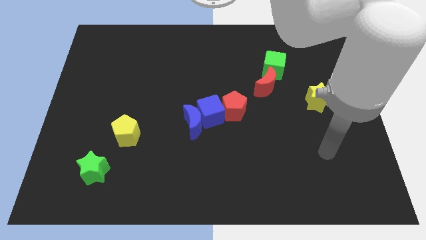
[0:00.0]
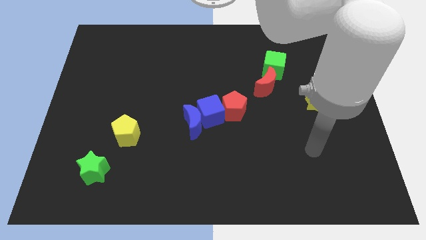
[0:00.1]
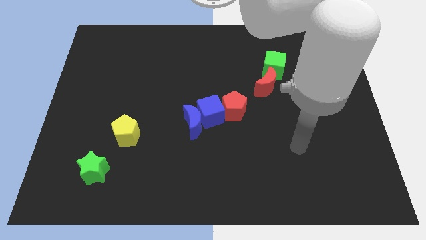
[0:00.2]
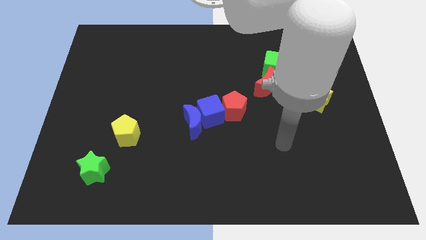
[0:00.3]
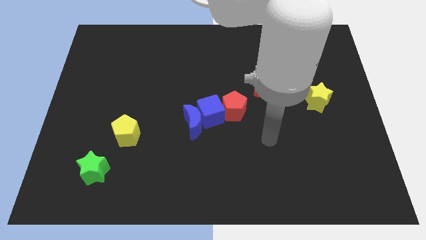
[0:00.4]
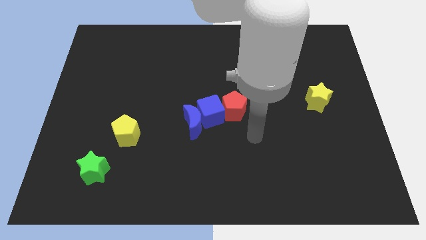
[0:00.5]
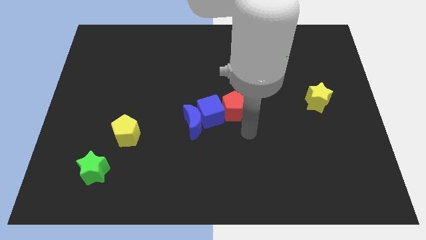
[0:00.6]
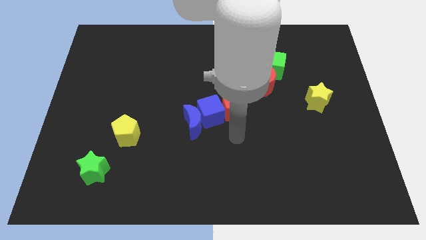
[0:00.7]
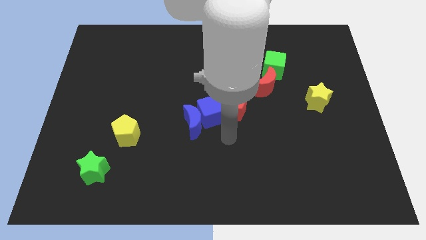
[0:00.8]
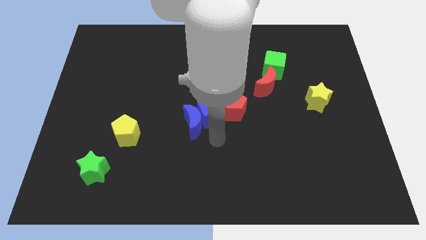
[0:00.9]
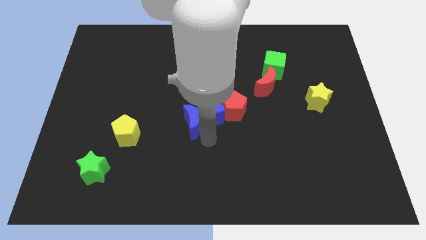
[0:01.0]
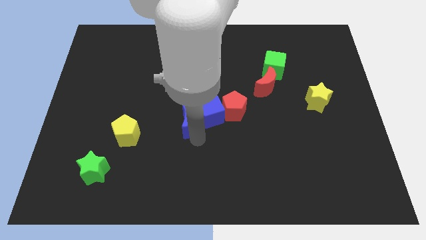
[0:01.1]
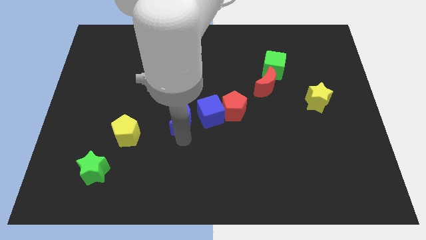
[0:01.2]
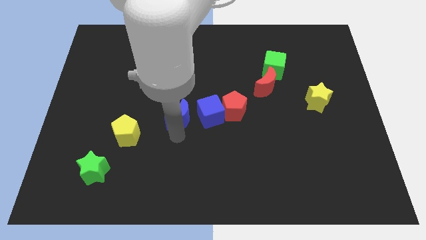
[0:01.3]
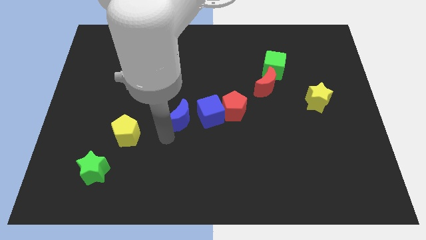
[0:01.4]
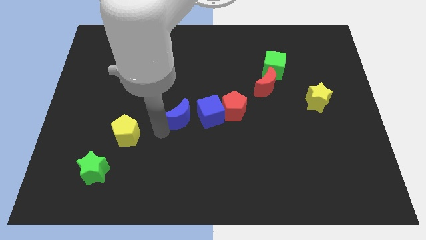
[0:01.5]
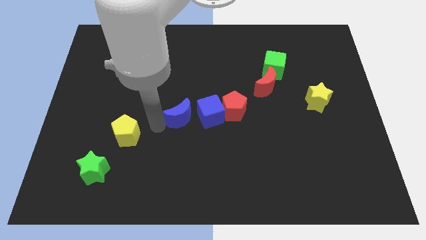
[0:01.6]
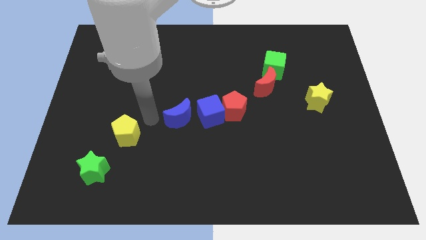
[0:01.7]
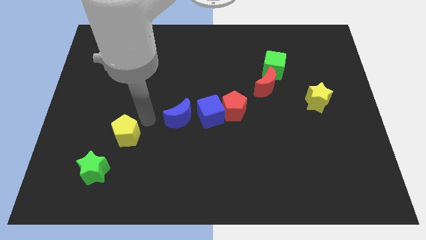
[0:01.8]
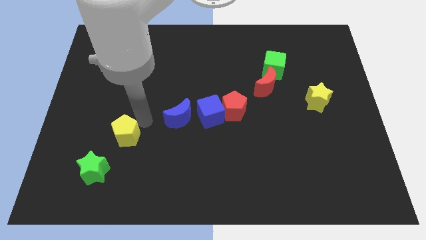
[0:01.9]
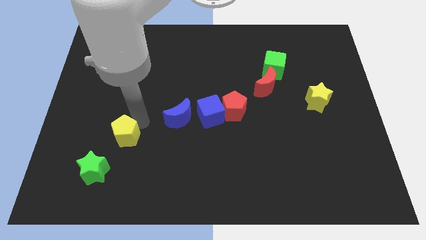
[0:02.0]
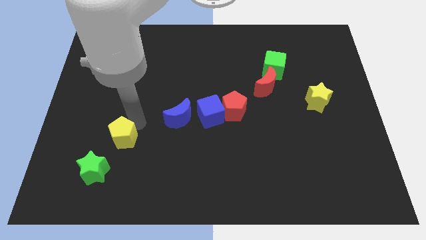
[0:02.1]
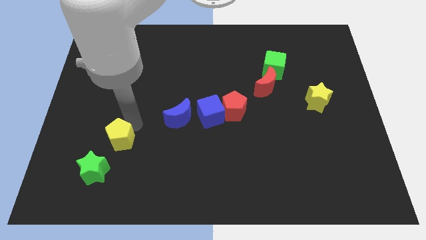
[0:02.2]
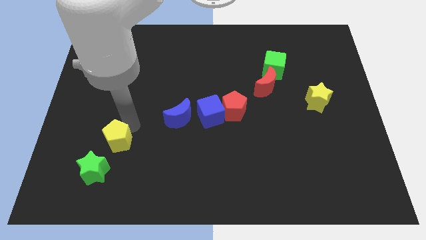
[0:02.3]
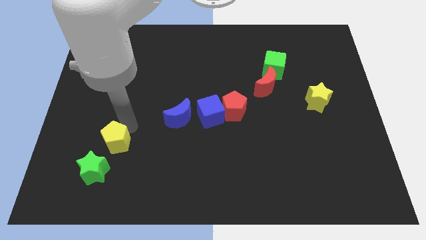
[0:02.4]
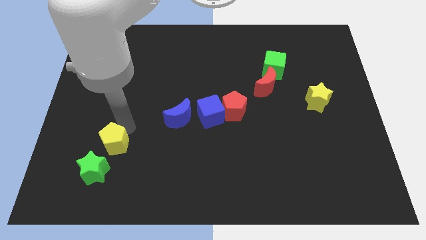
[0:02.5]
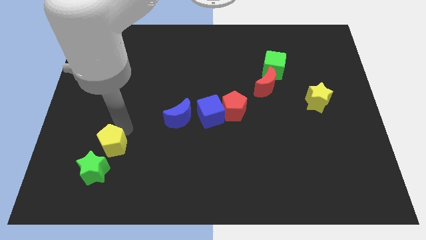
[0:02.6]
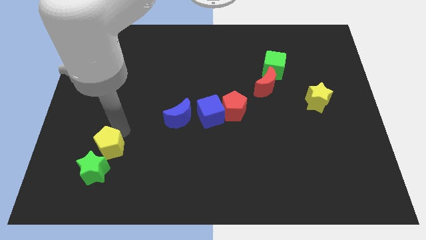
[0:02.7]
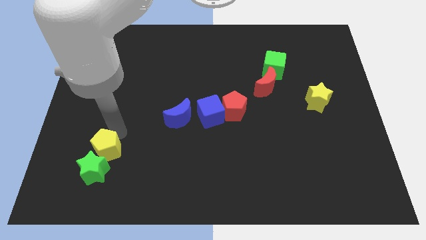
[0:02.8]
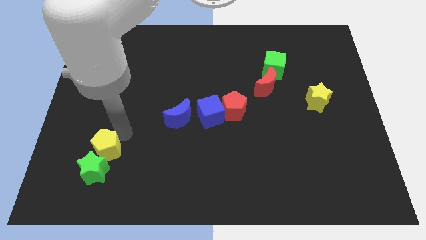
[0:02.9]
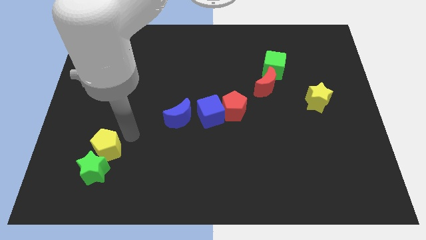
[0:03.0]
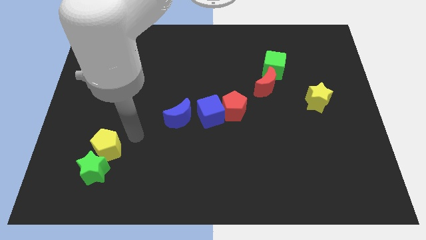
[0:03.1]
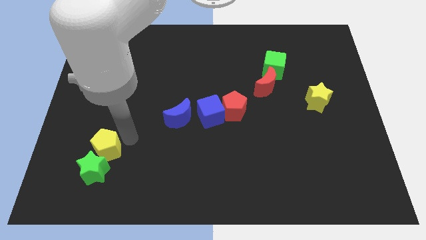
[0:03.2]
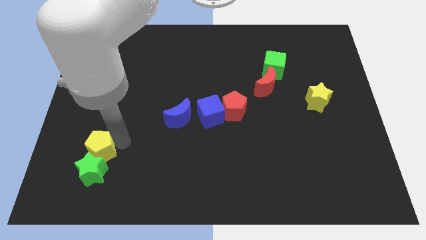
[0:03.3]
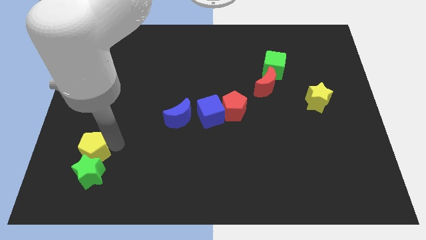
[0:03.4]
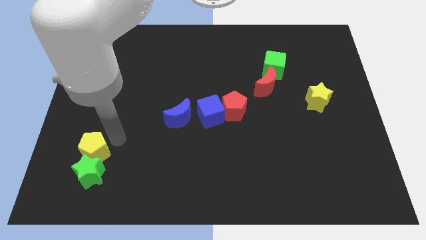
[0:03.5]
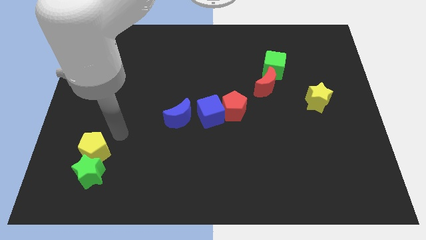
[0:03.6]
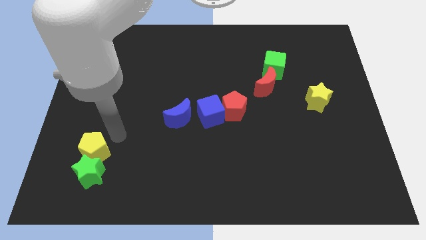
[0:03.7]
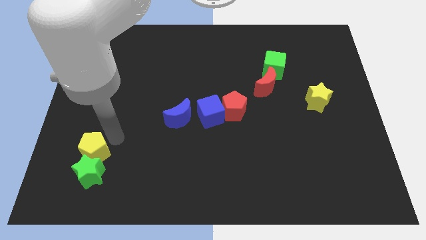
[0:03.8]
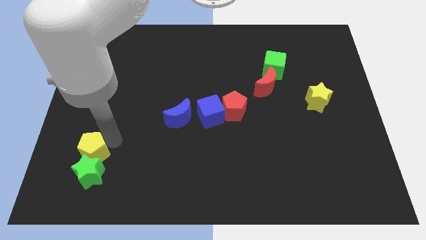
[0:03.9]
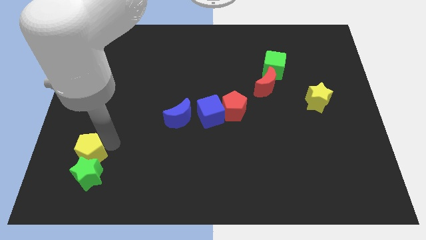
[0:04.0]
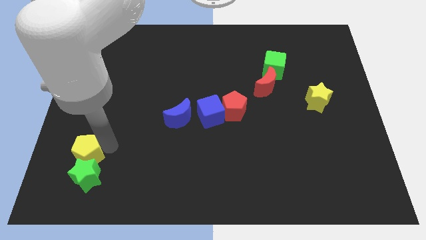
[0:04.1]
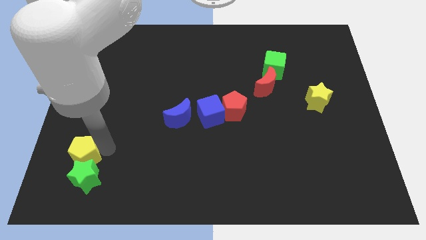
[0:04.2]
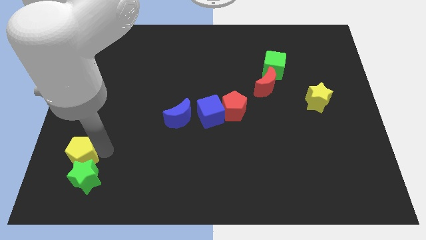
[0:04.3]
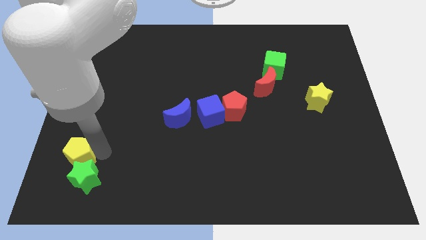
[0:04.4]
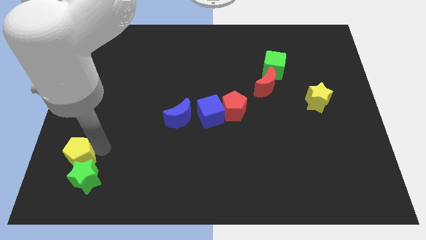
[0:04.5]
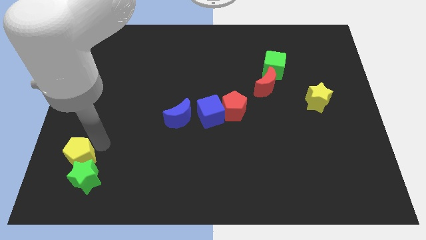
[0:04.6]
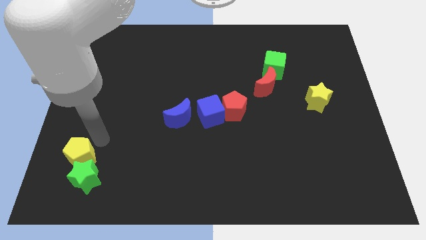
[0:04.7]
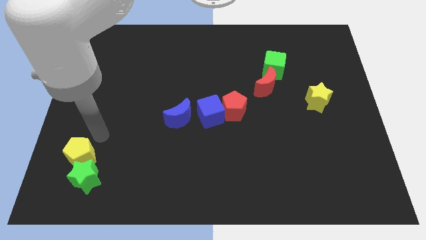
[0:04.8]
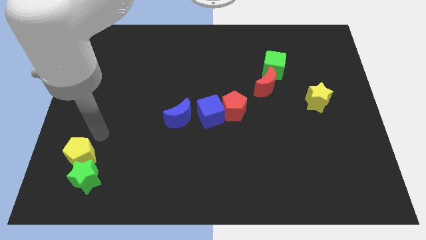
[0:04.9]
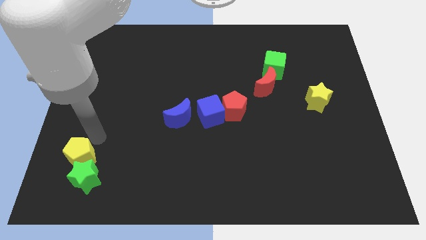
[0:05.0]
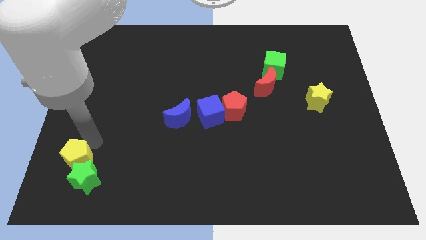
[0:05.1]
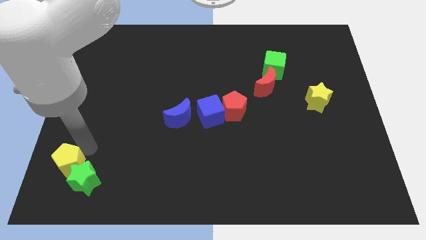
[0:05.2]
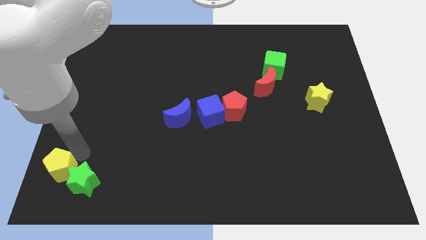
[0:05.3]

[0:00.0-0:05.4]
slide the yellow pentagon to the bottom left
